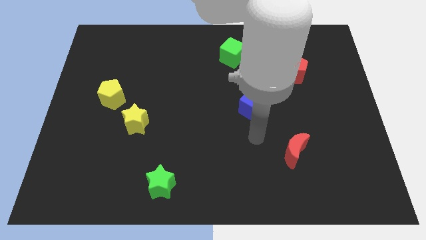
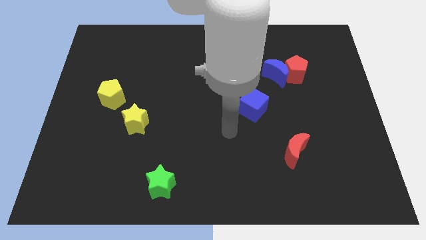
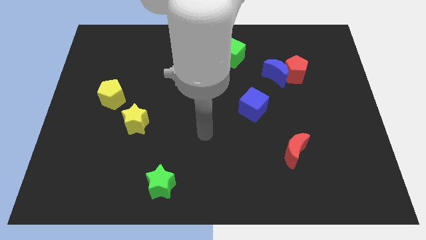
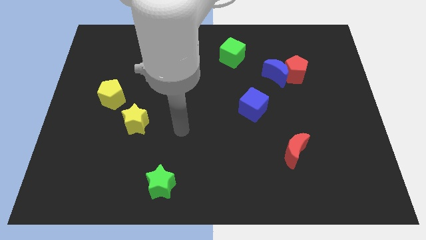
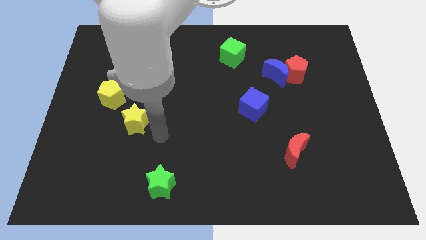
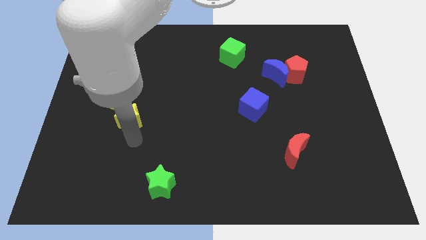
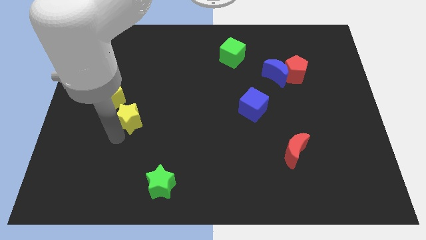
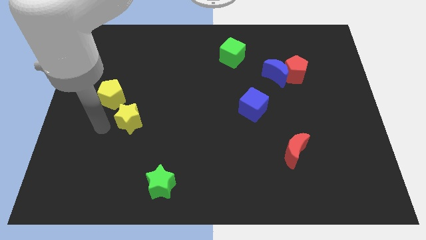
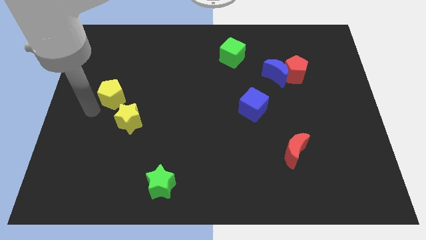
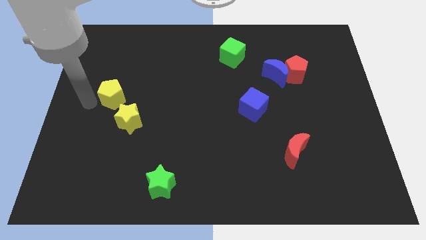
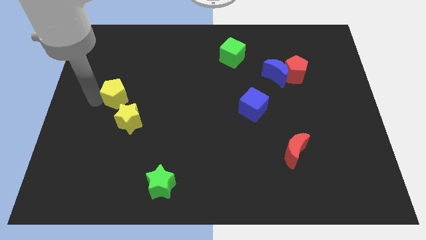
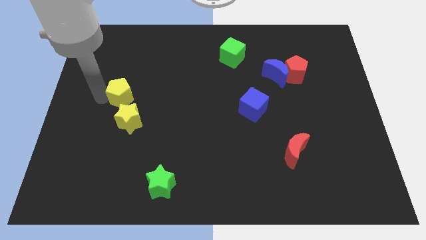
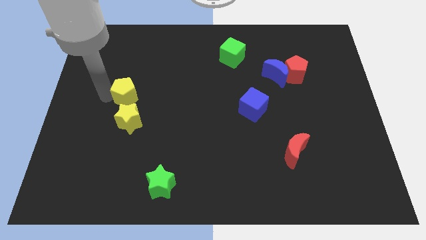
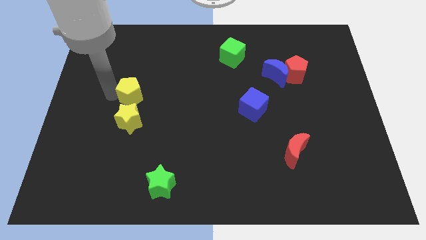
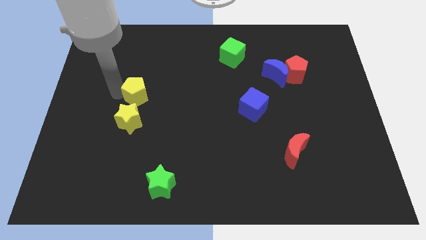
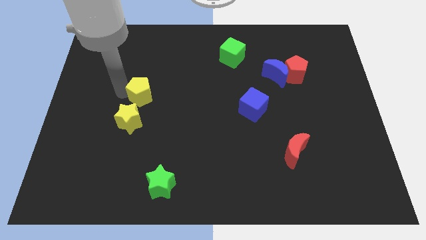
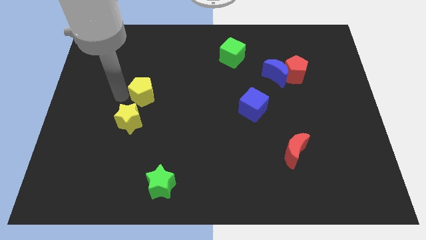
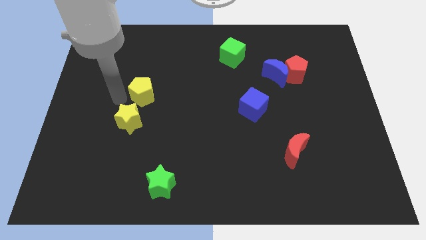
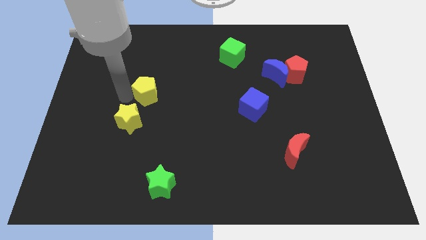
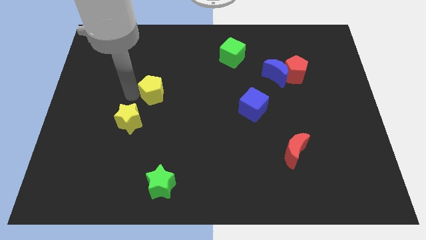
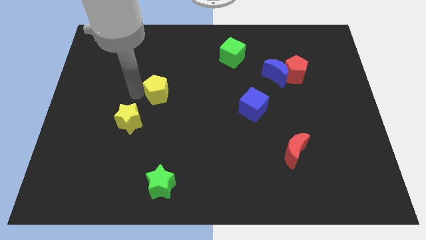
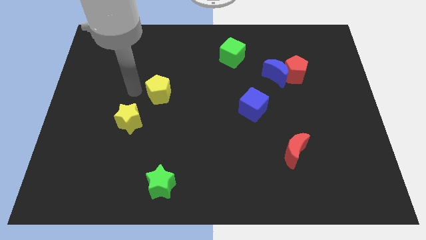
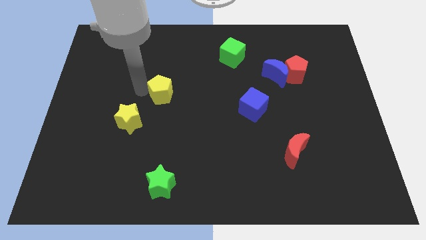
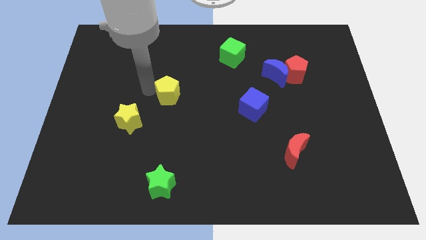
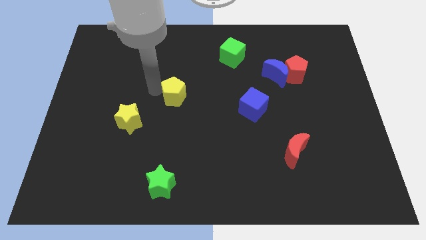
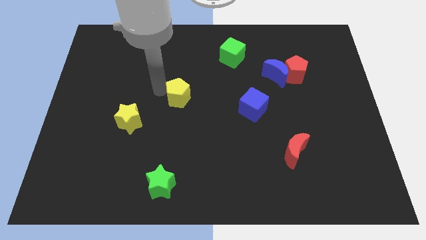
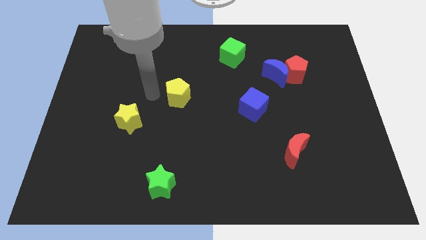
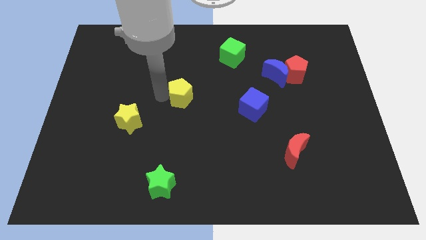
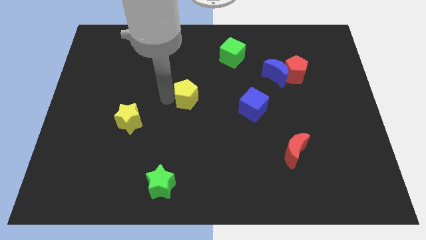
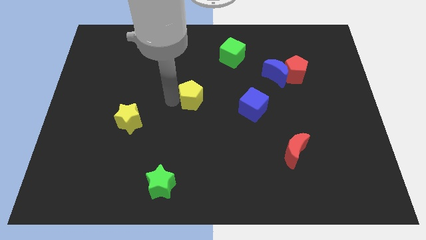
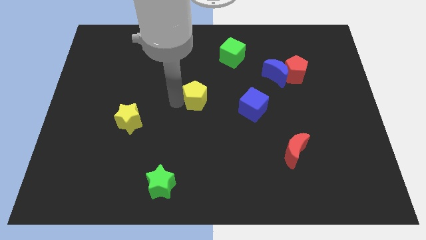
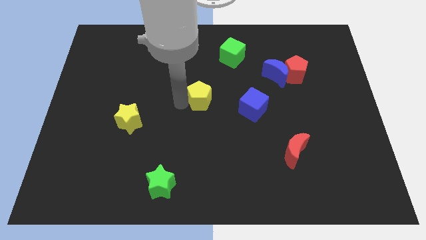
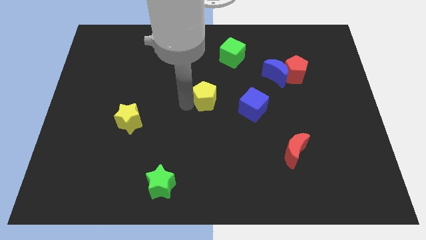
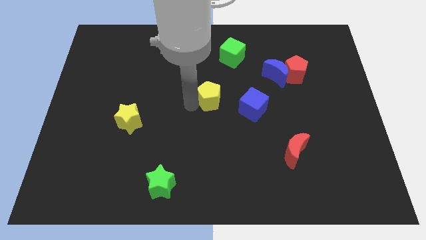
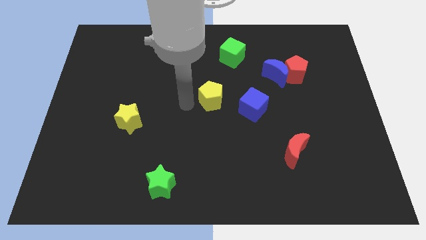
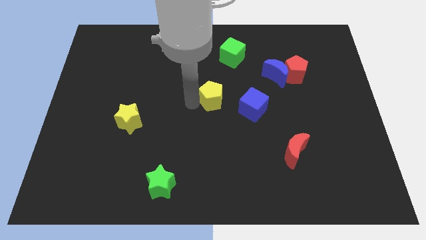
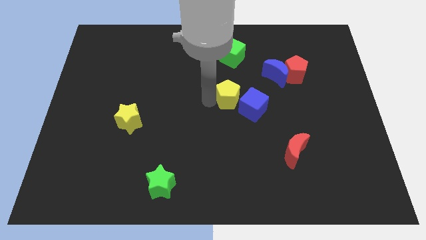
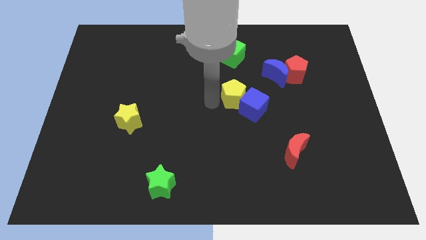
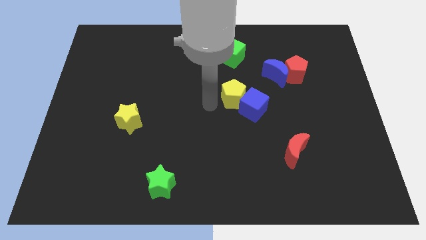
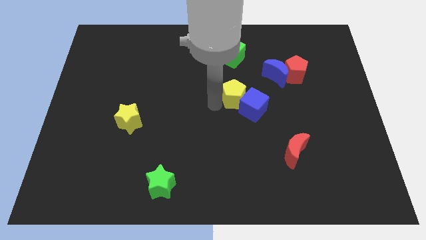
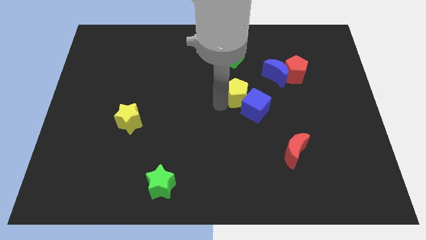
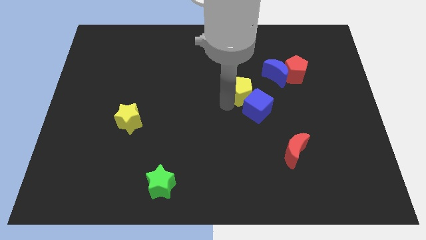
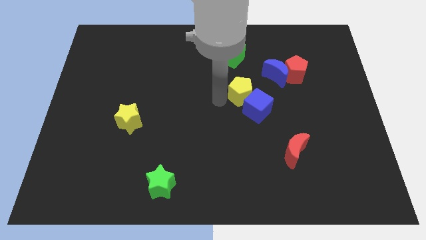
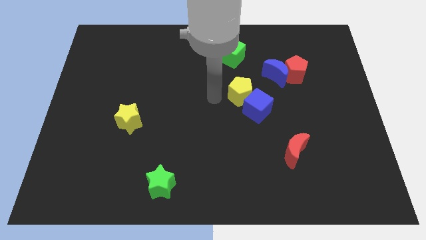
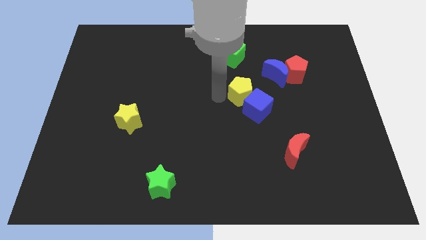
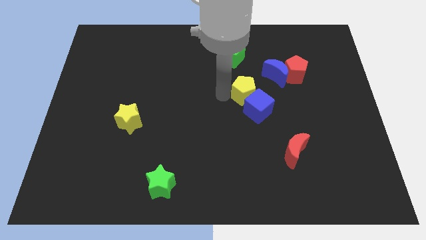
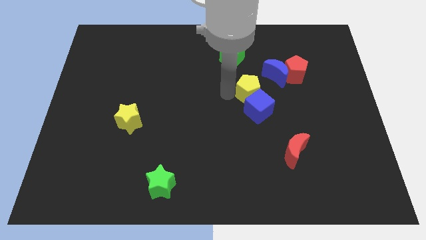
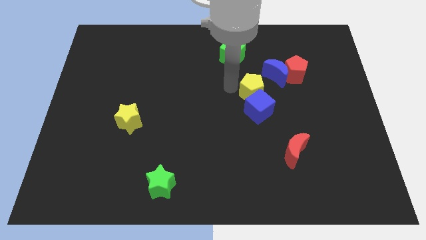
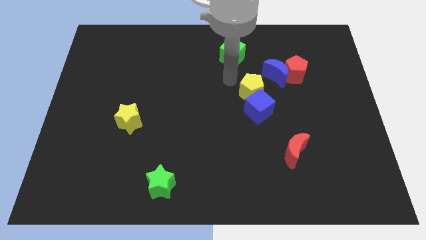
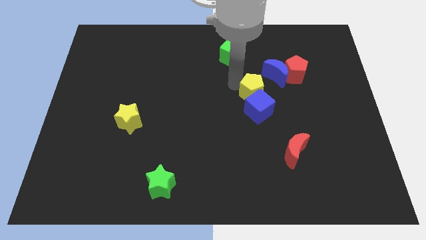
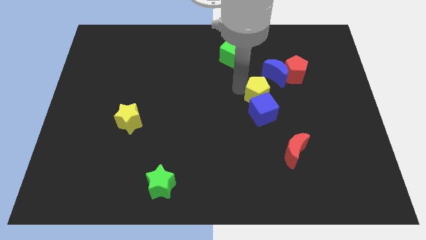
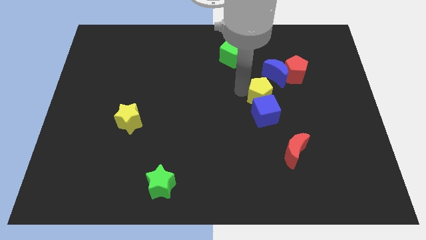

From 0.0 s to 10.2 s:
put the yellow pentagon to the bottom of the blue moon

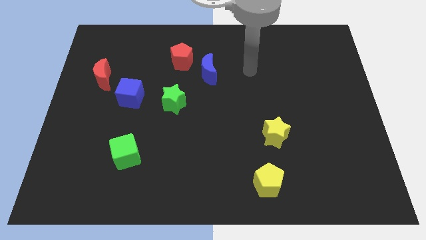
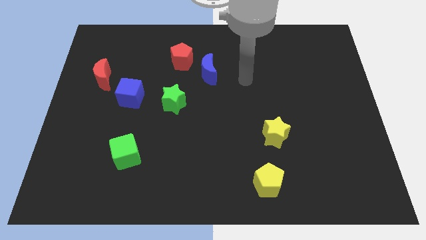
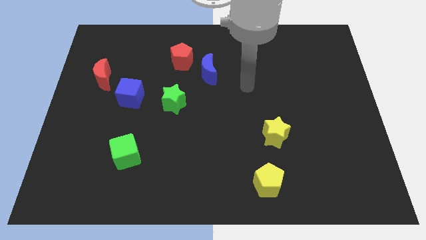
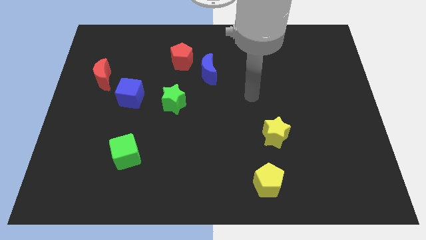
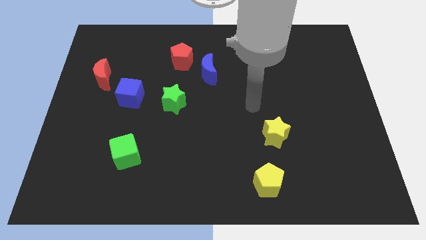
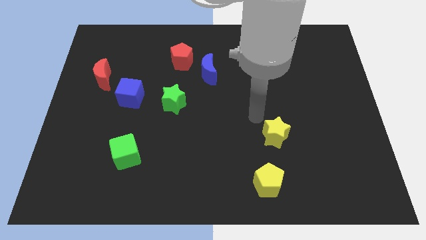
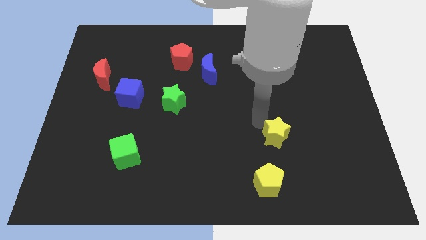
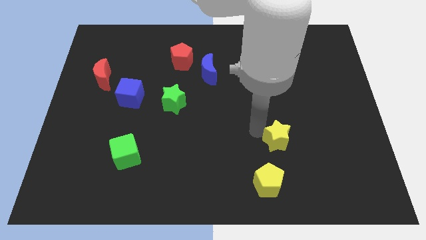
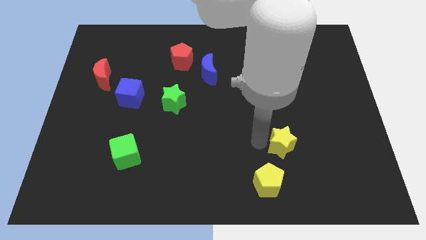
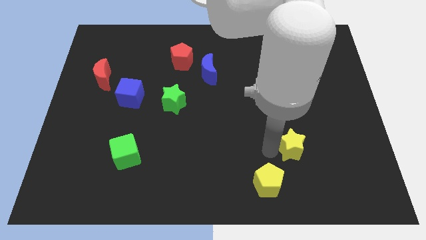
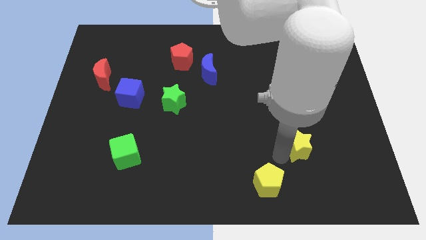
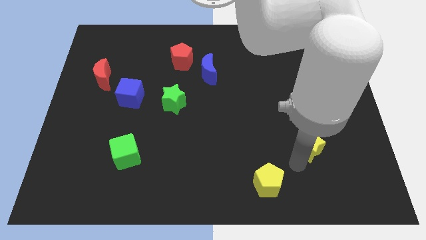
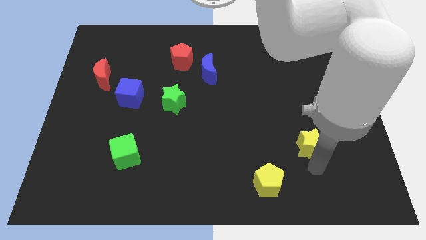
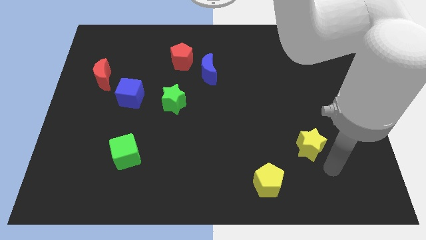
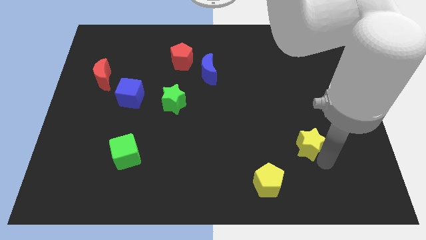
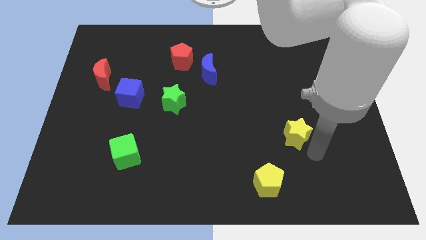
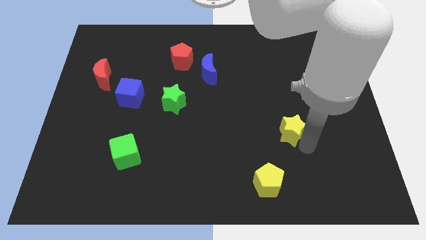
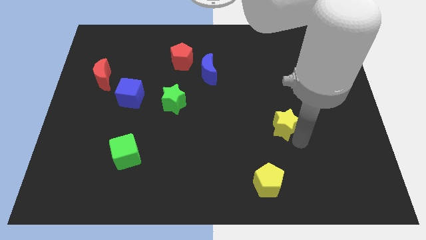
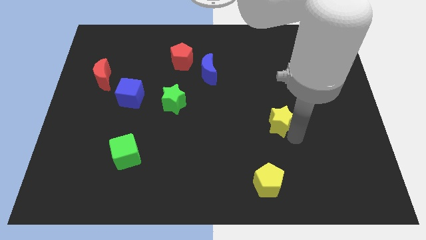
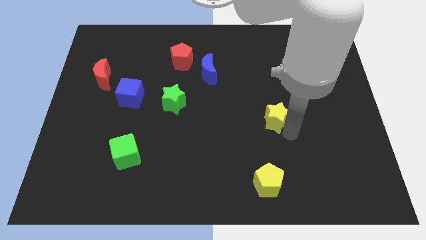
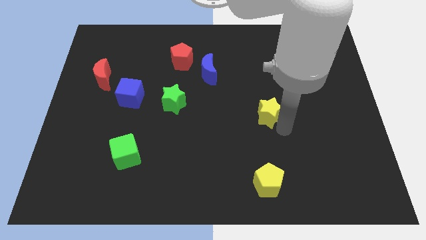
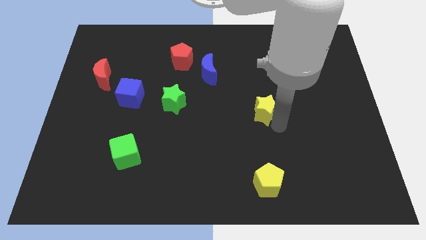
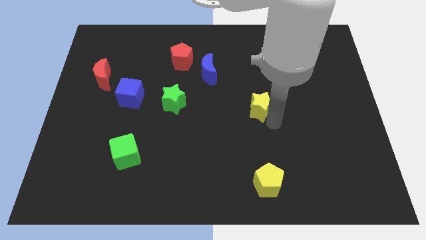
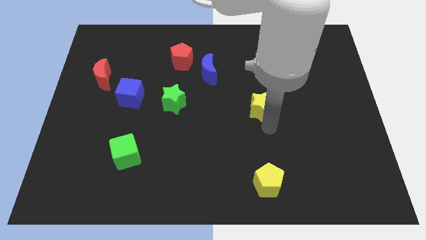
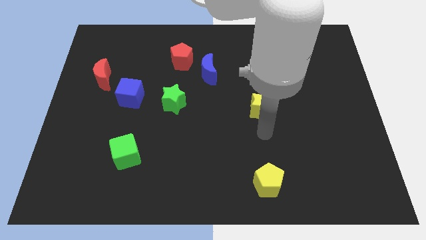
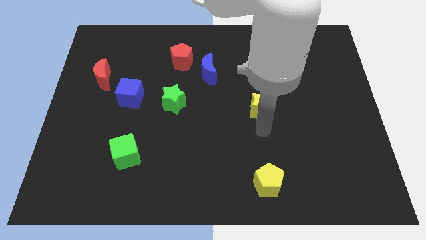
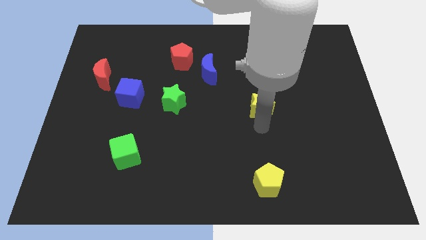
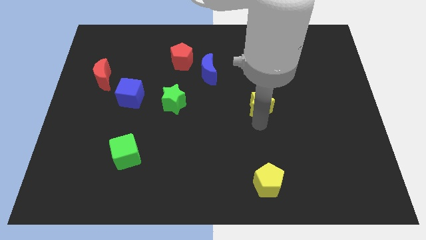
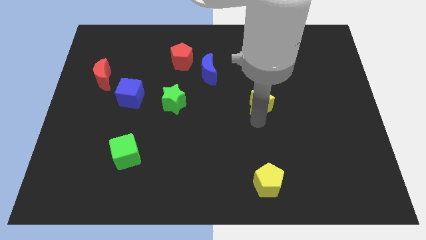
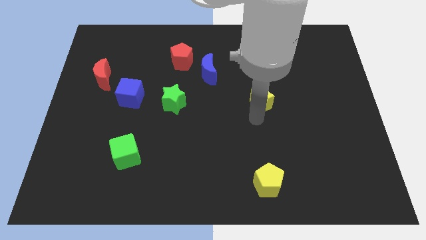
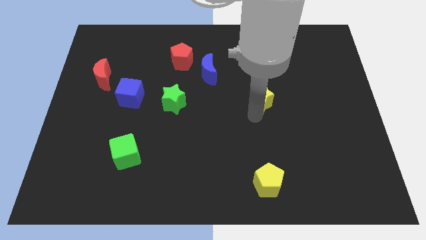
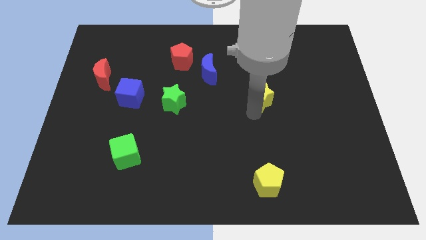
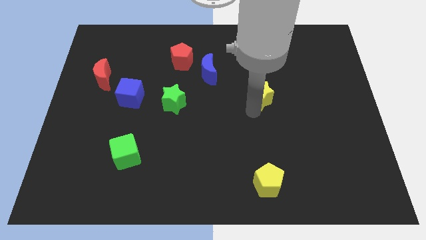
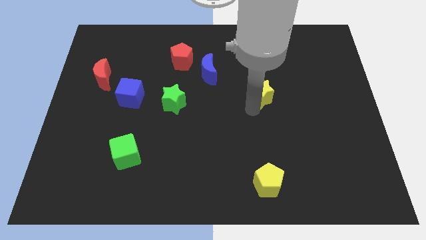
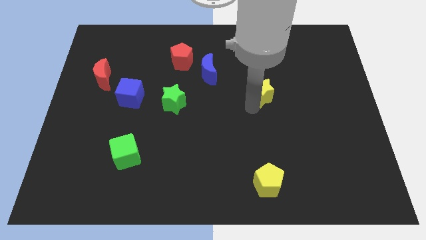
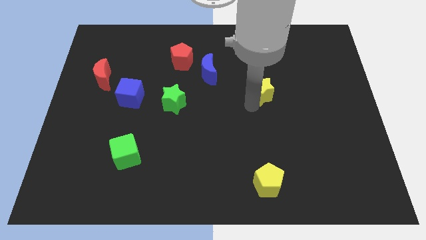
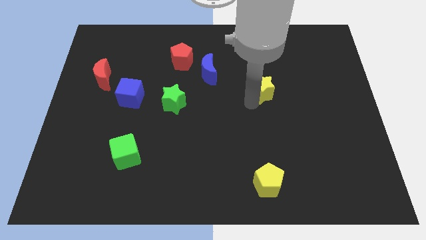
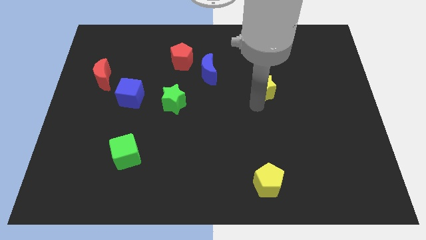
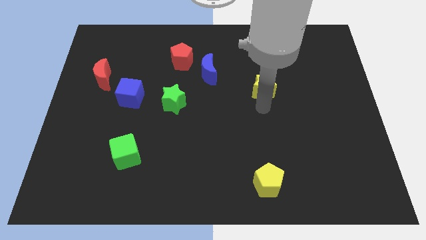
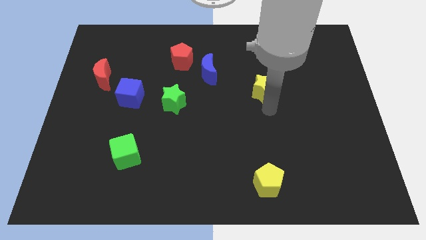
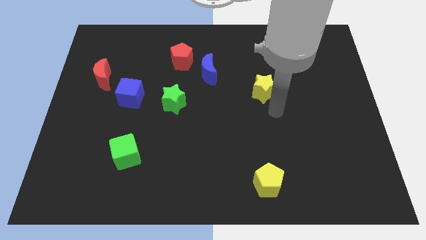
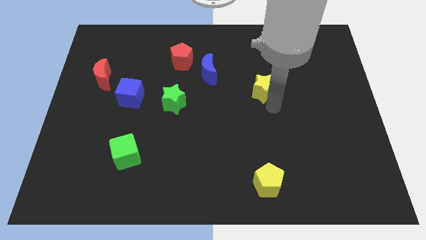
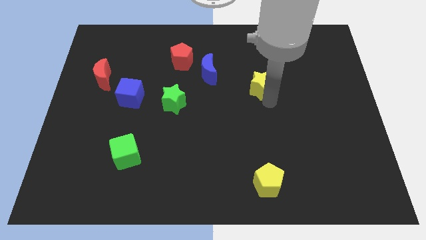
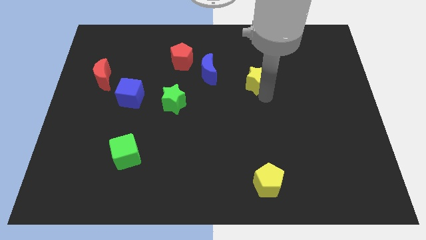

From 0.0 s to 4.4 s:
move the yellow star just right of the blue moon
